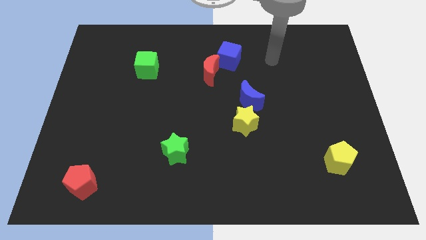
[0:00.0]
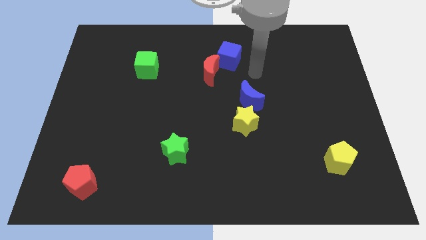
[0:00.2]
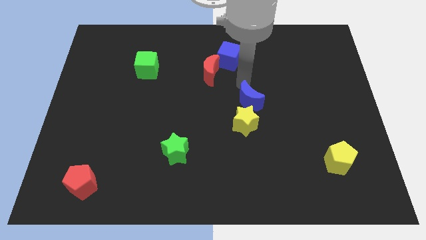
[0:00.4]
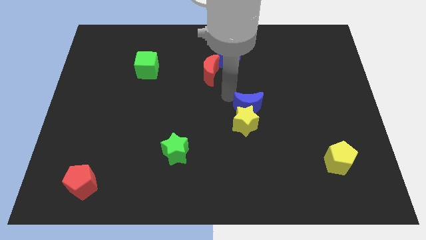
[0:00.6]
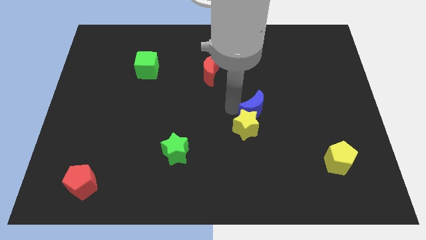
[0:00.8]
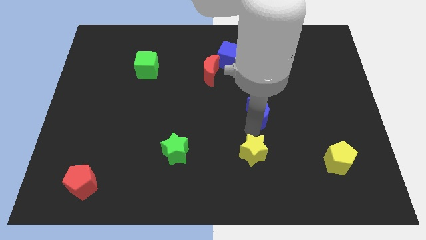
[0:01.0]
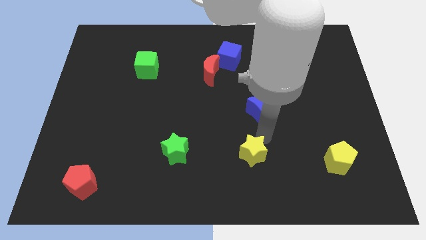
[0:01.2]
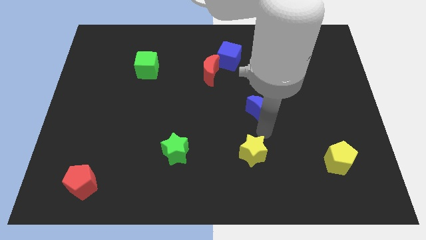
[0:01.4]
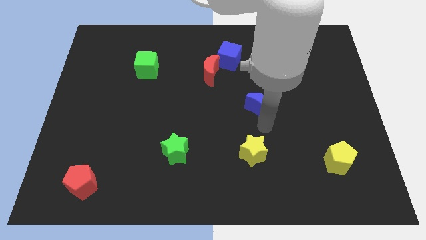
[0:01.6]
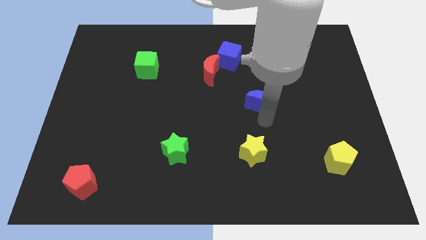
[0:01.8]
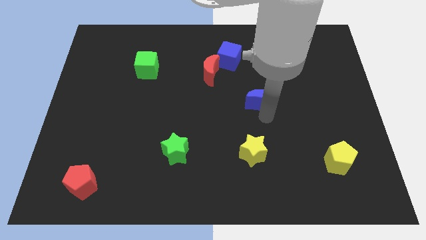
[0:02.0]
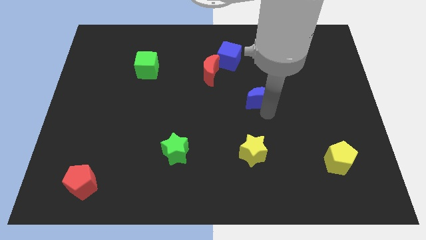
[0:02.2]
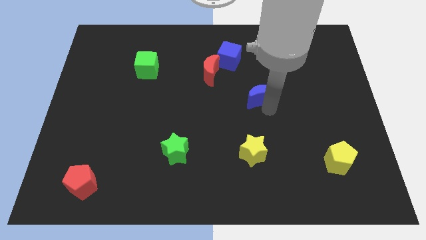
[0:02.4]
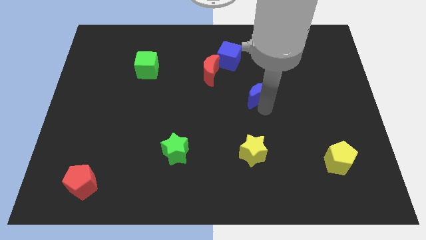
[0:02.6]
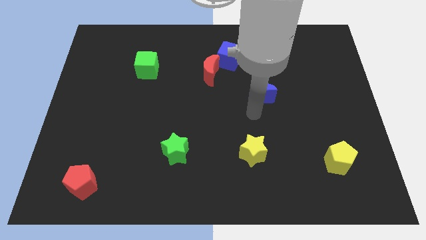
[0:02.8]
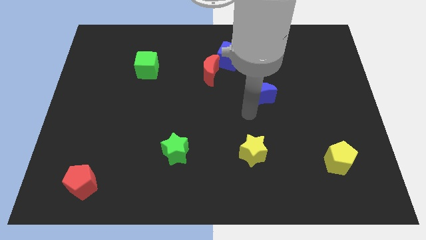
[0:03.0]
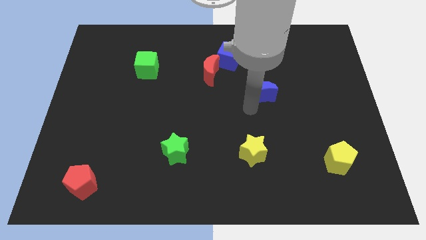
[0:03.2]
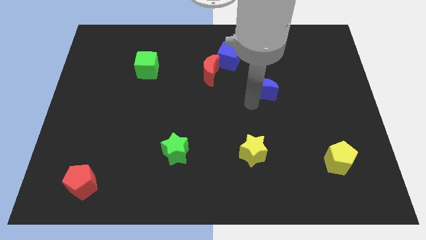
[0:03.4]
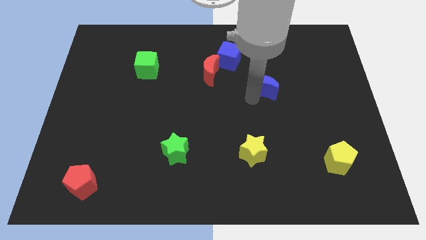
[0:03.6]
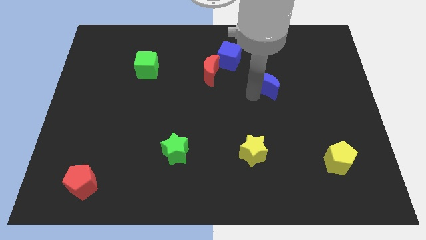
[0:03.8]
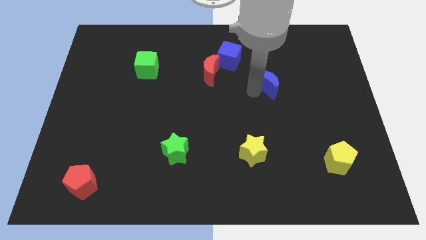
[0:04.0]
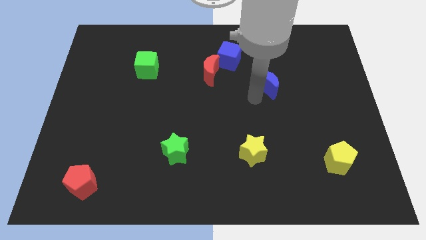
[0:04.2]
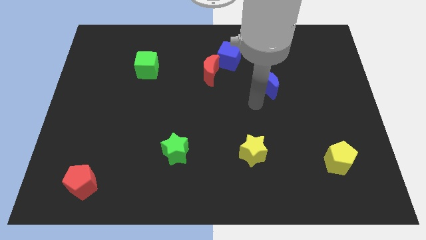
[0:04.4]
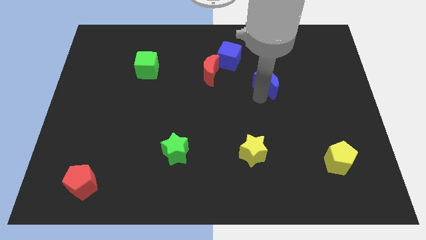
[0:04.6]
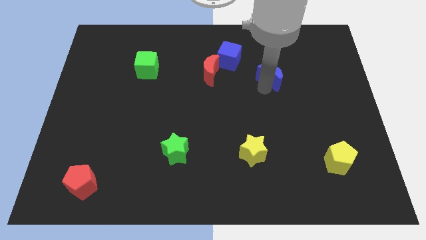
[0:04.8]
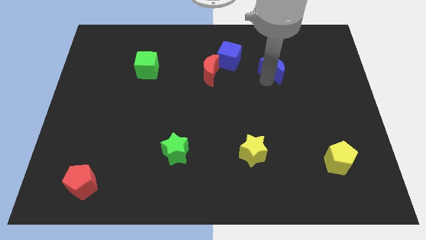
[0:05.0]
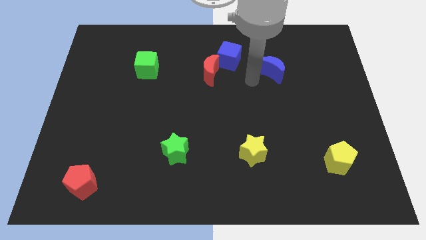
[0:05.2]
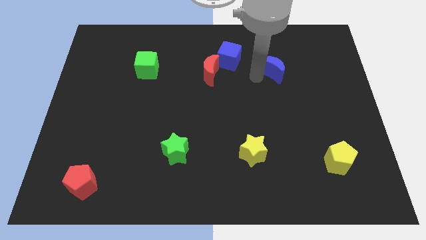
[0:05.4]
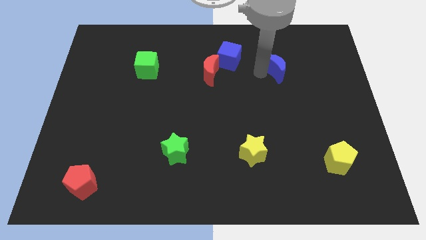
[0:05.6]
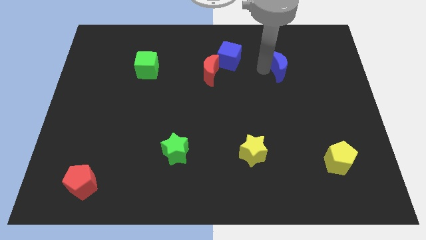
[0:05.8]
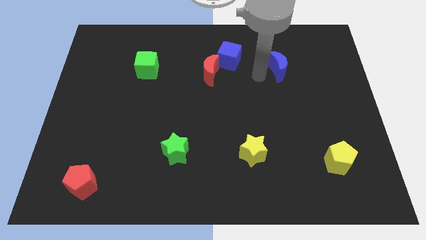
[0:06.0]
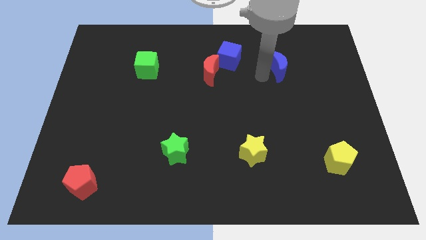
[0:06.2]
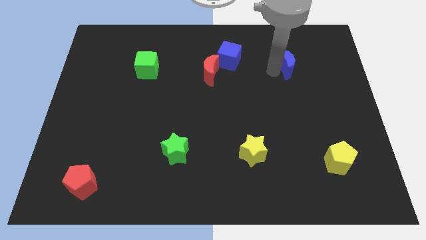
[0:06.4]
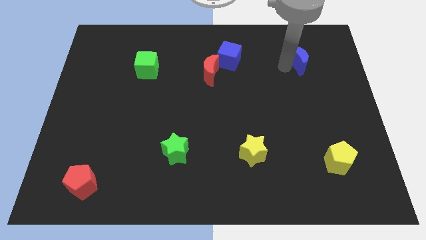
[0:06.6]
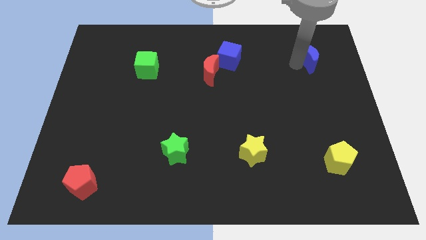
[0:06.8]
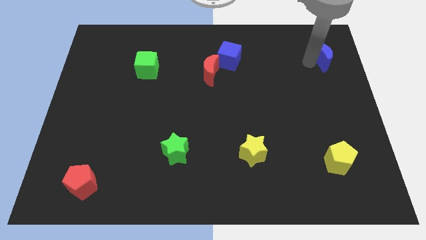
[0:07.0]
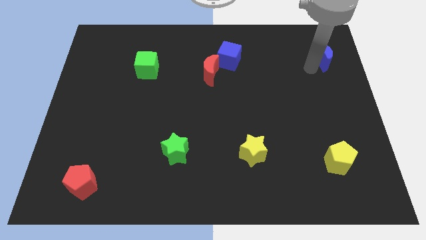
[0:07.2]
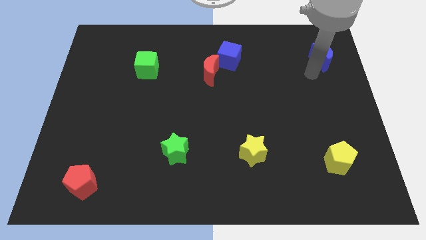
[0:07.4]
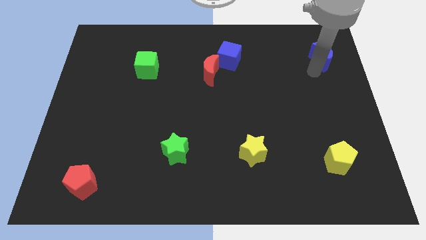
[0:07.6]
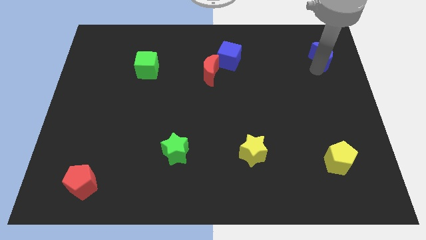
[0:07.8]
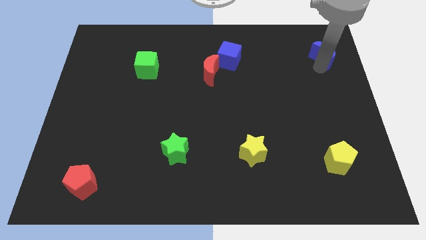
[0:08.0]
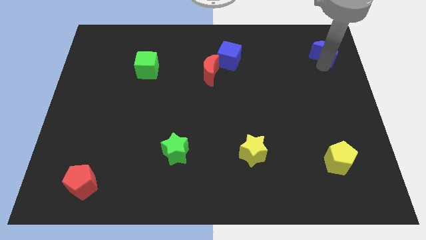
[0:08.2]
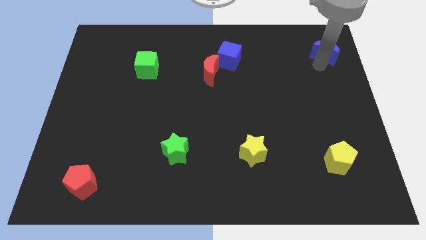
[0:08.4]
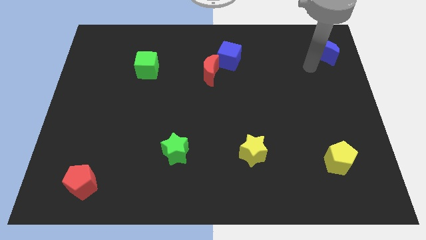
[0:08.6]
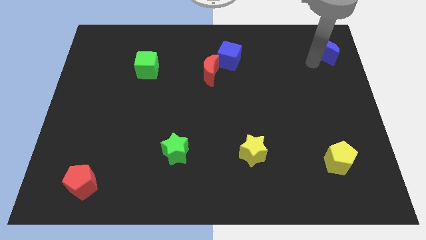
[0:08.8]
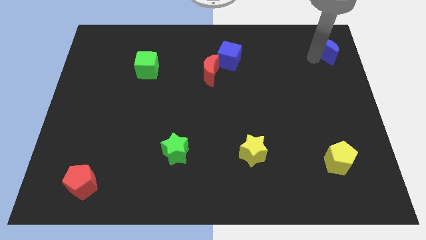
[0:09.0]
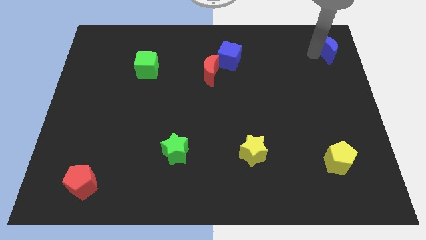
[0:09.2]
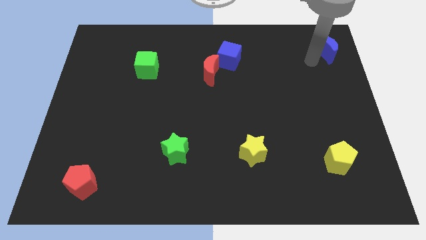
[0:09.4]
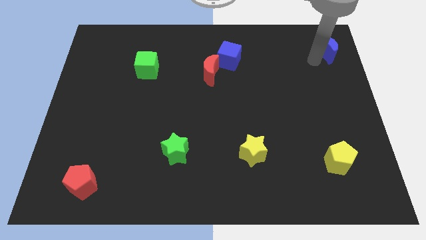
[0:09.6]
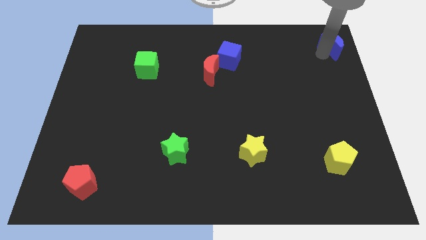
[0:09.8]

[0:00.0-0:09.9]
push the blue moon to the top right corner

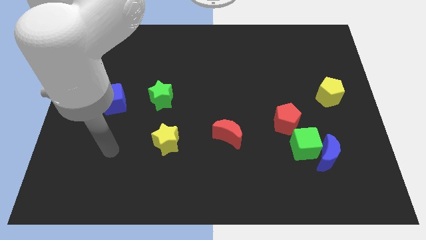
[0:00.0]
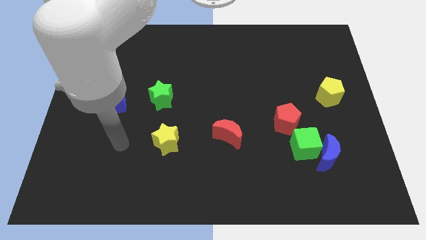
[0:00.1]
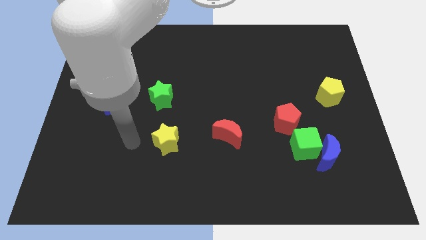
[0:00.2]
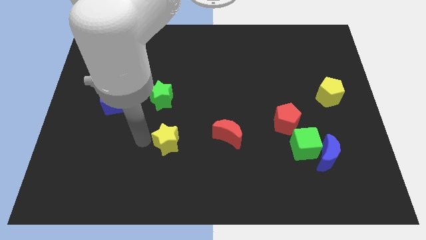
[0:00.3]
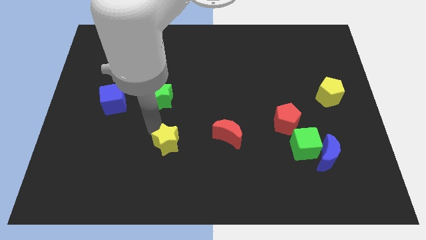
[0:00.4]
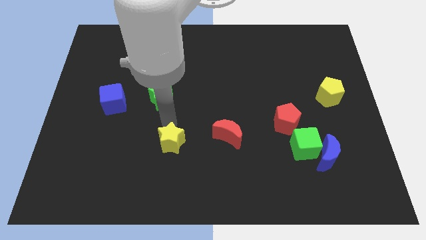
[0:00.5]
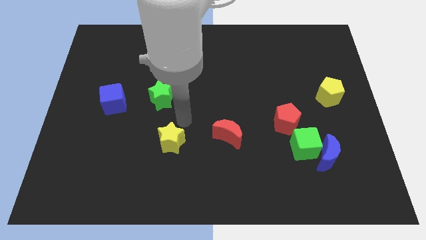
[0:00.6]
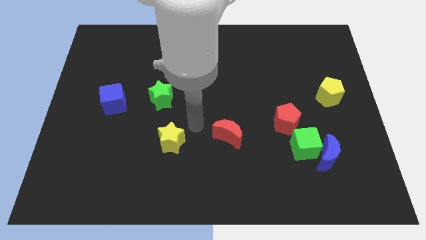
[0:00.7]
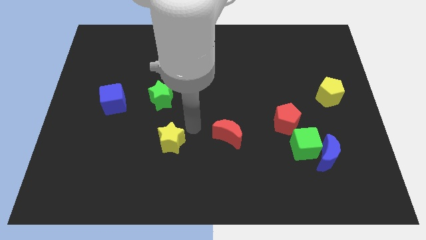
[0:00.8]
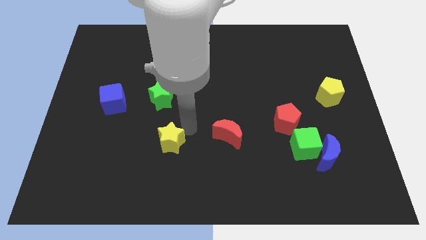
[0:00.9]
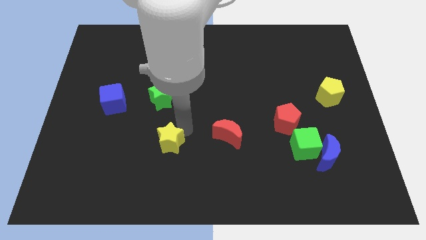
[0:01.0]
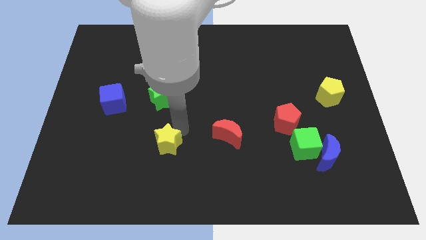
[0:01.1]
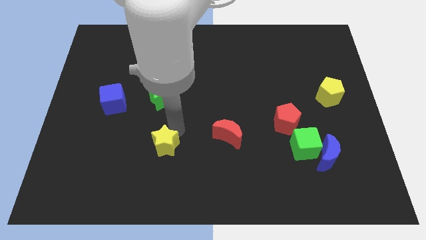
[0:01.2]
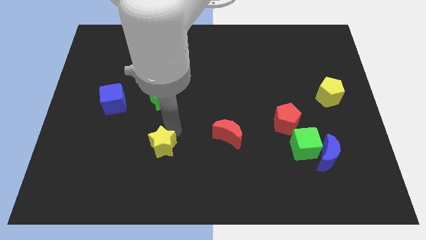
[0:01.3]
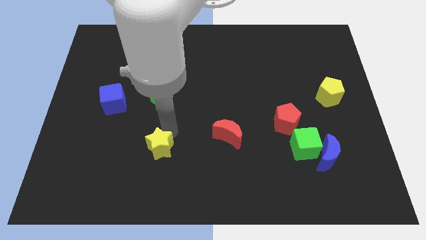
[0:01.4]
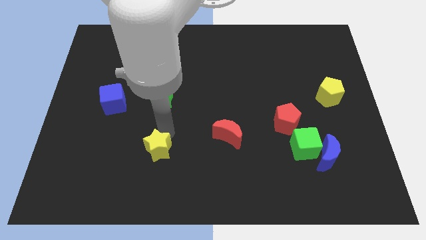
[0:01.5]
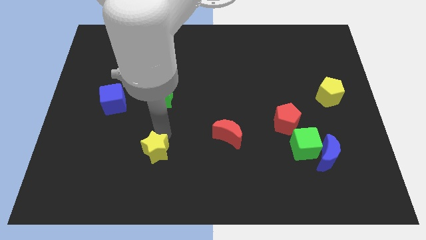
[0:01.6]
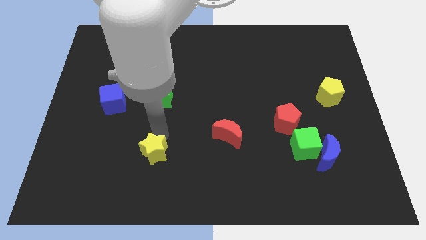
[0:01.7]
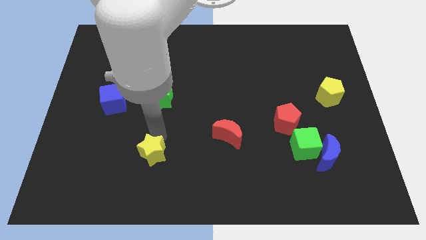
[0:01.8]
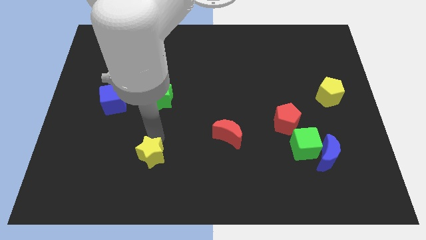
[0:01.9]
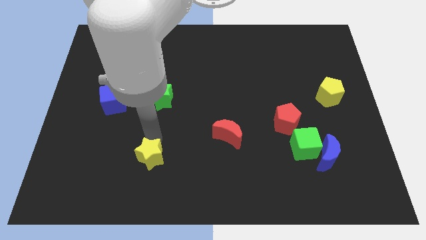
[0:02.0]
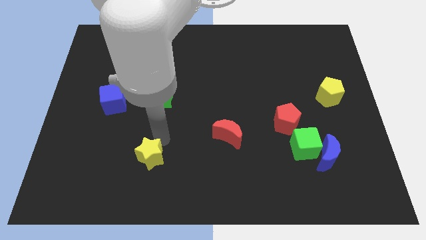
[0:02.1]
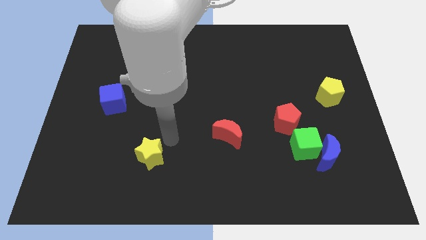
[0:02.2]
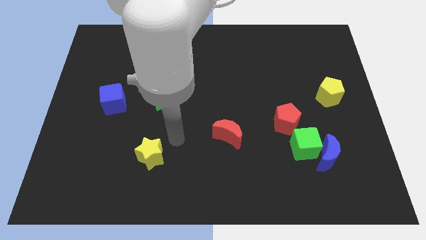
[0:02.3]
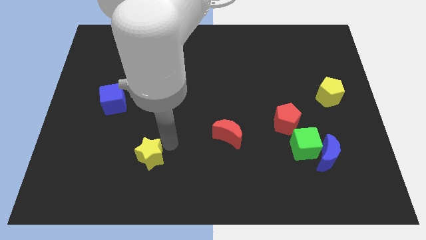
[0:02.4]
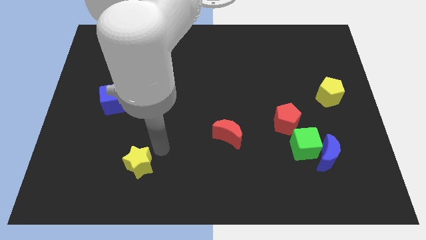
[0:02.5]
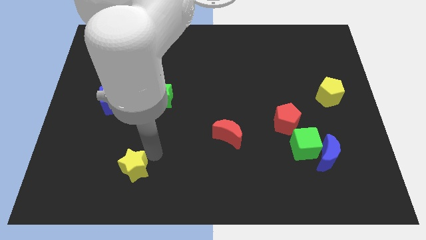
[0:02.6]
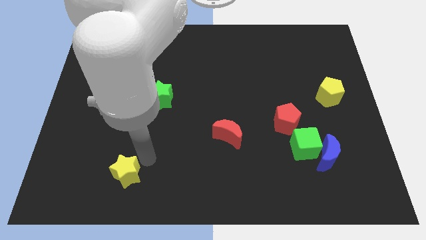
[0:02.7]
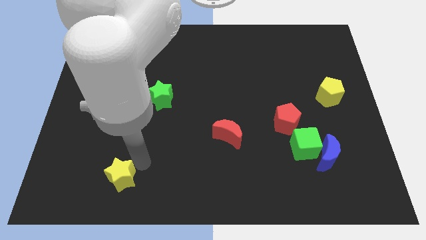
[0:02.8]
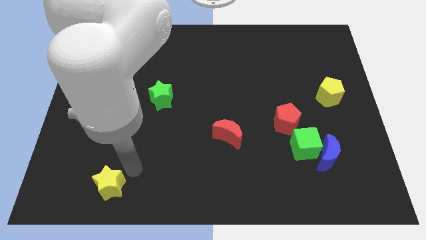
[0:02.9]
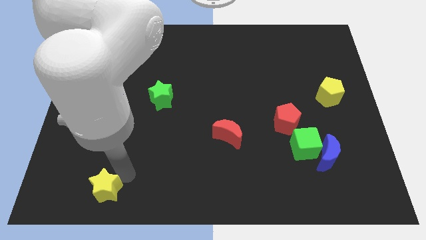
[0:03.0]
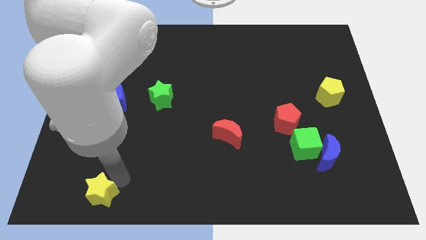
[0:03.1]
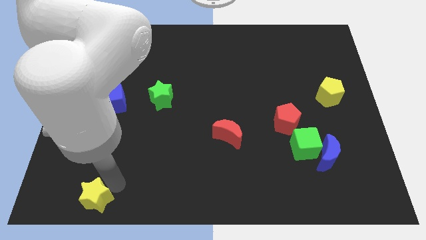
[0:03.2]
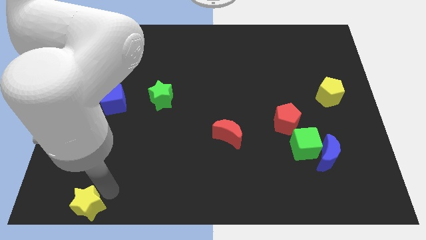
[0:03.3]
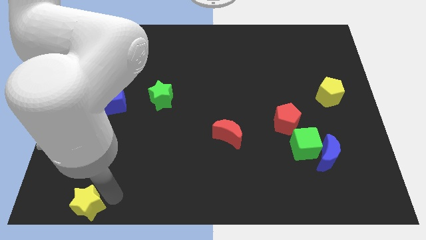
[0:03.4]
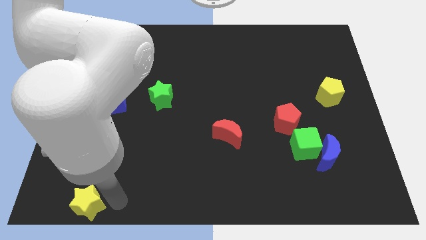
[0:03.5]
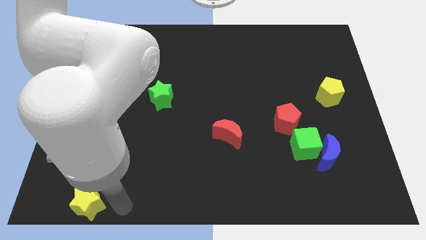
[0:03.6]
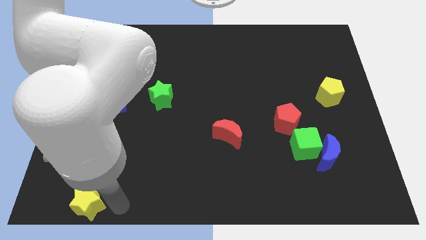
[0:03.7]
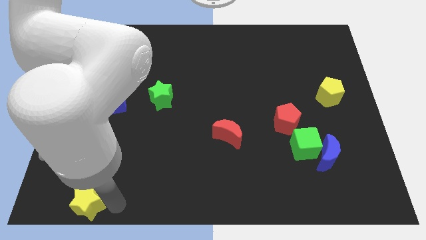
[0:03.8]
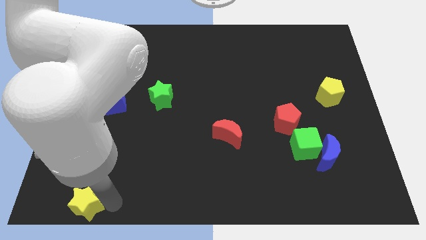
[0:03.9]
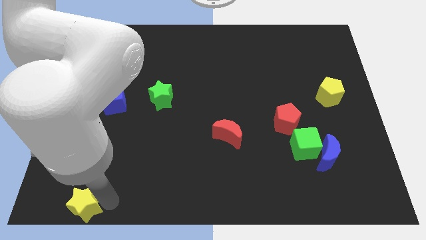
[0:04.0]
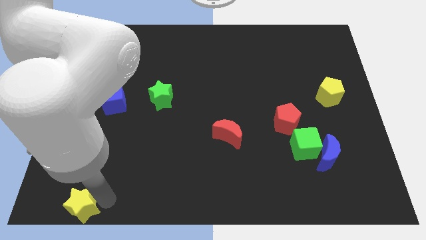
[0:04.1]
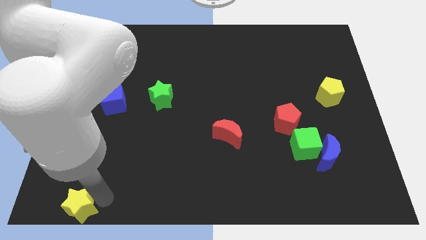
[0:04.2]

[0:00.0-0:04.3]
move the yellow star to the bottom left of the board
